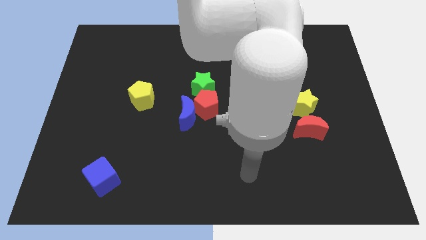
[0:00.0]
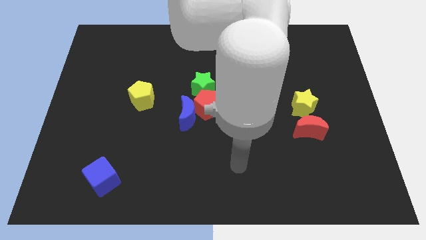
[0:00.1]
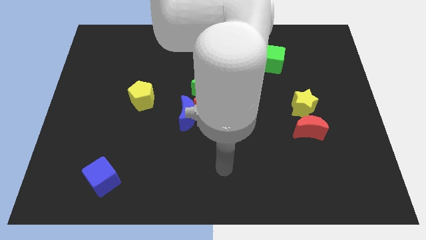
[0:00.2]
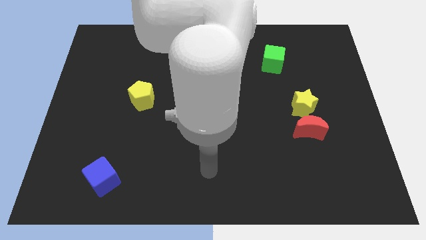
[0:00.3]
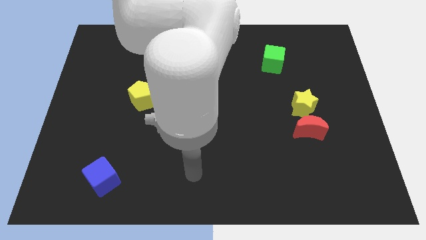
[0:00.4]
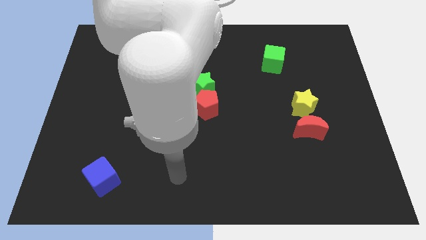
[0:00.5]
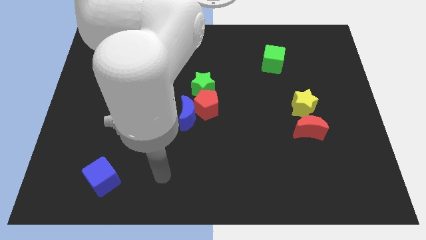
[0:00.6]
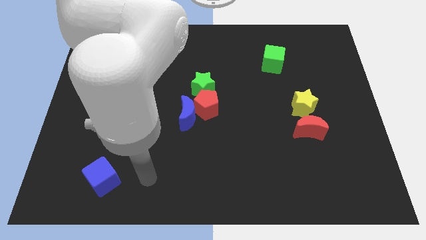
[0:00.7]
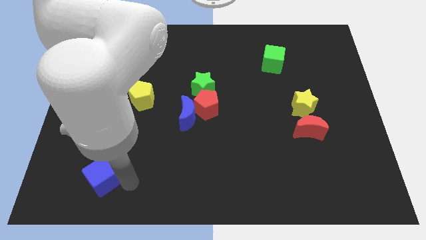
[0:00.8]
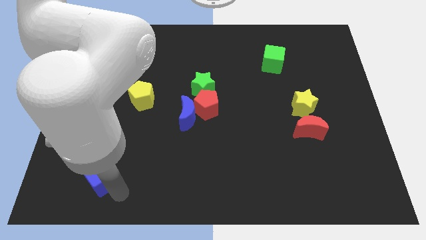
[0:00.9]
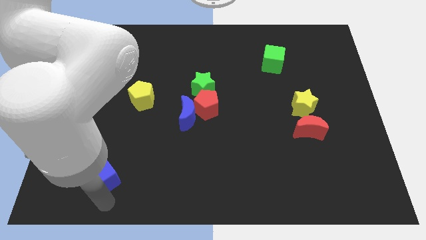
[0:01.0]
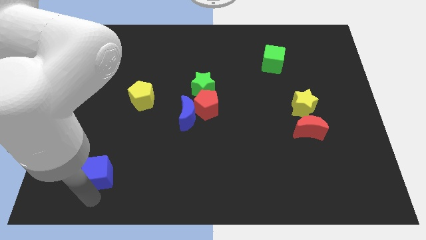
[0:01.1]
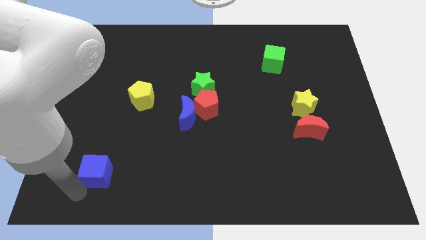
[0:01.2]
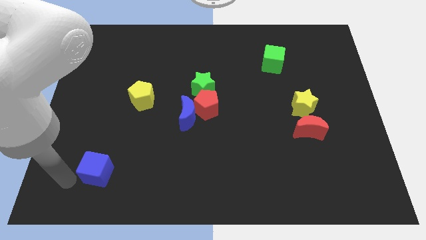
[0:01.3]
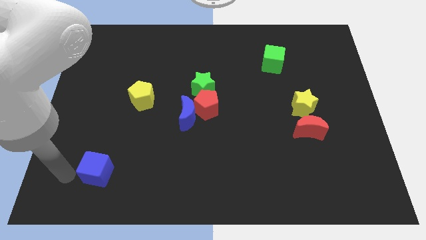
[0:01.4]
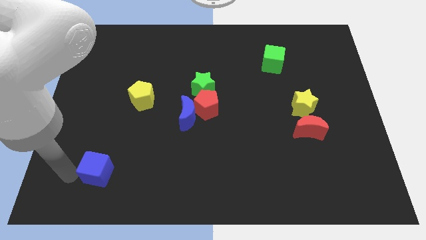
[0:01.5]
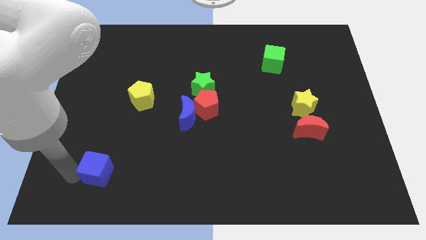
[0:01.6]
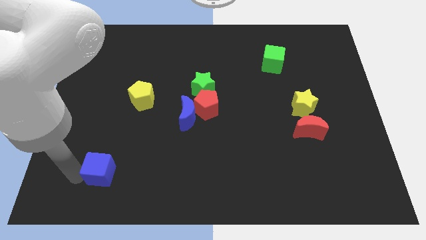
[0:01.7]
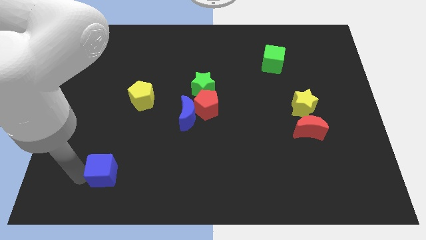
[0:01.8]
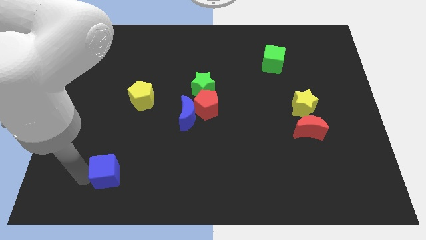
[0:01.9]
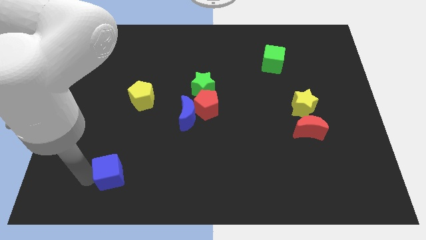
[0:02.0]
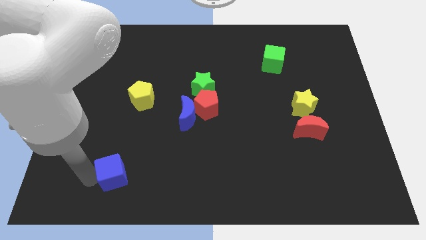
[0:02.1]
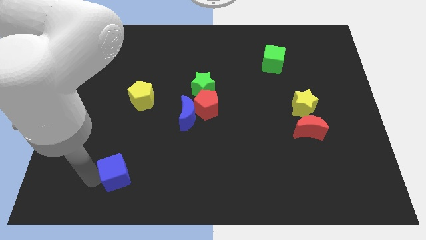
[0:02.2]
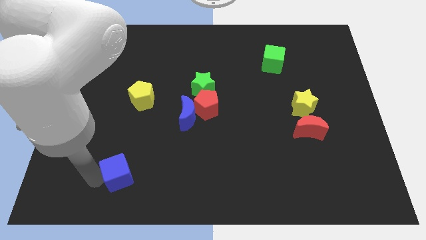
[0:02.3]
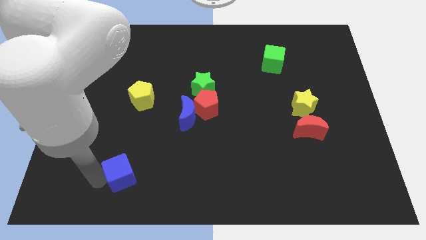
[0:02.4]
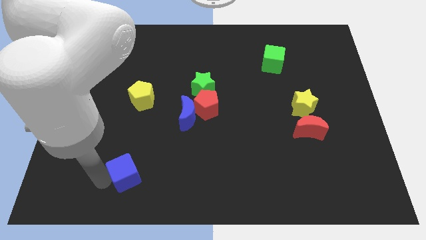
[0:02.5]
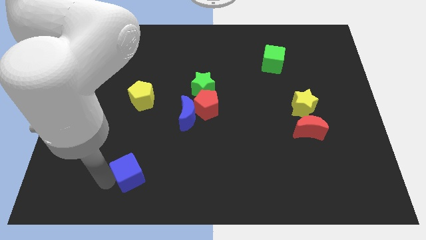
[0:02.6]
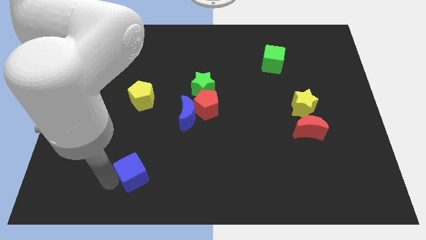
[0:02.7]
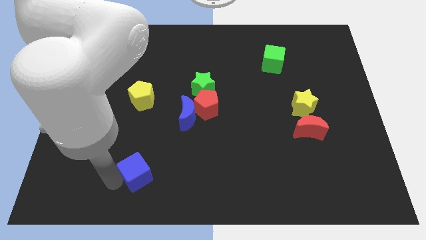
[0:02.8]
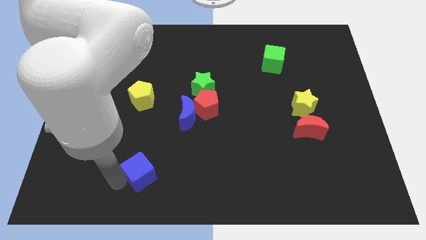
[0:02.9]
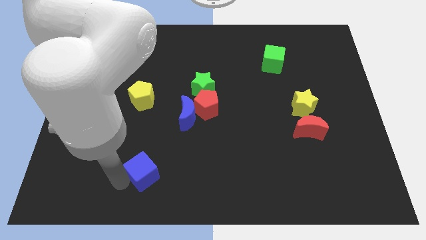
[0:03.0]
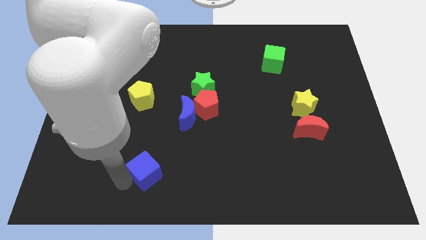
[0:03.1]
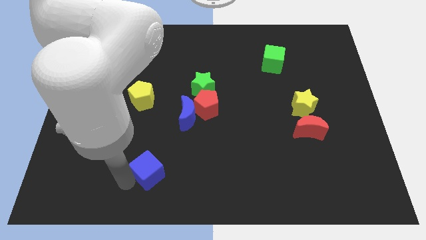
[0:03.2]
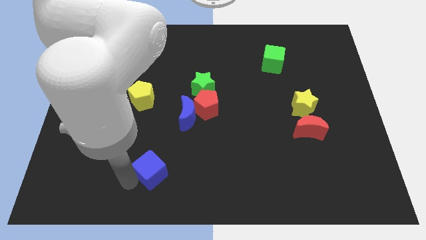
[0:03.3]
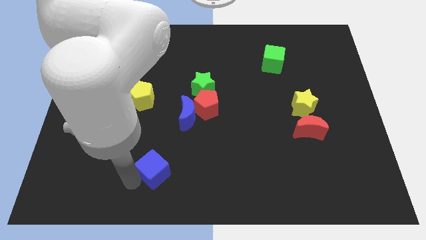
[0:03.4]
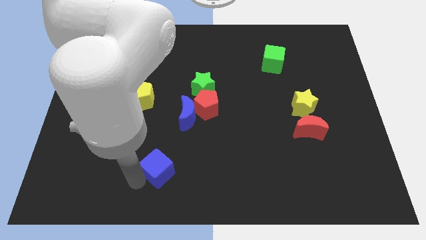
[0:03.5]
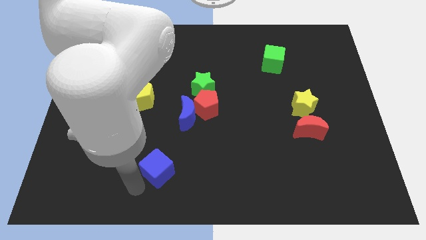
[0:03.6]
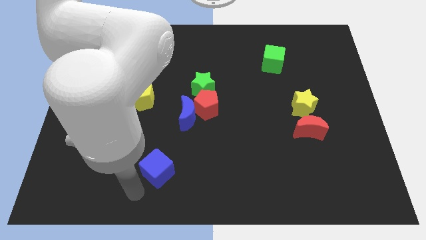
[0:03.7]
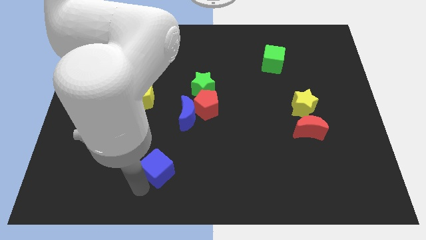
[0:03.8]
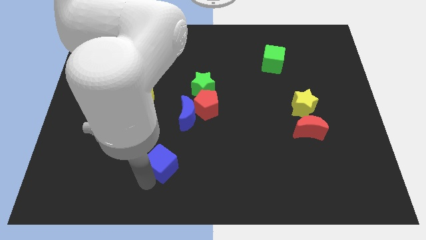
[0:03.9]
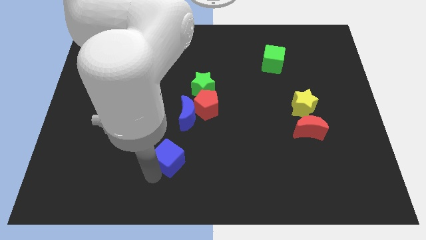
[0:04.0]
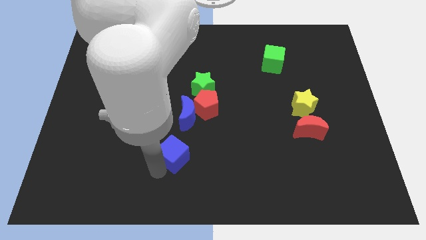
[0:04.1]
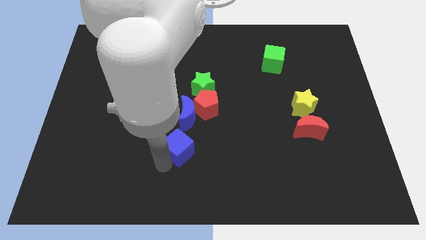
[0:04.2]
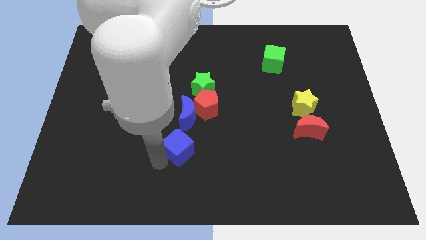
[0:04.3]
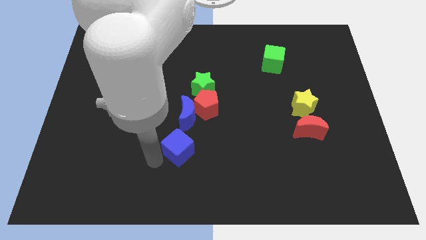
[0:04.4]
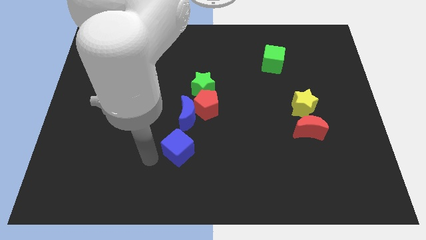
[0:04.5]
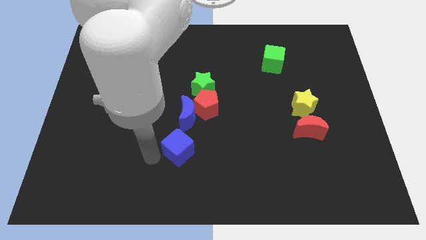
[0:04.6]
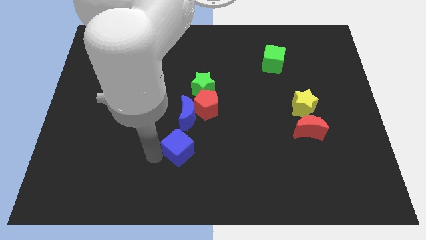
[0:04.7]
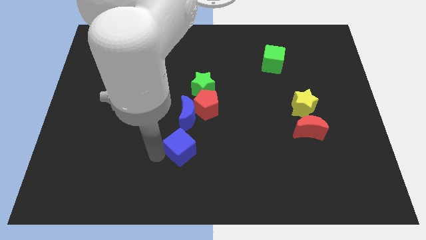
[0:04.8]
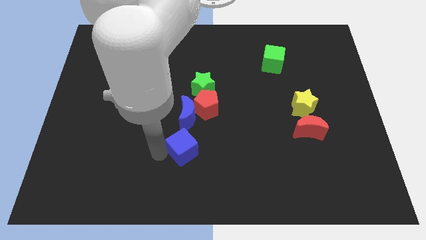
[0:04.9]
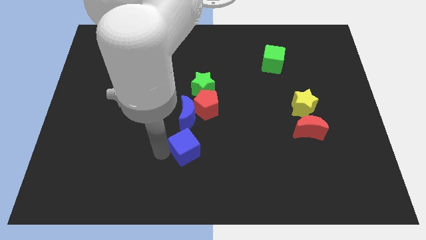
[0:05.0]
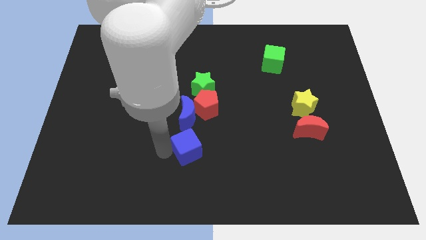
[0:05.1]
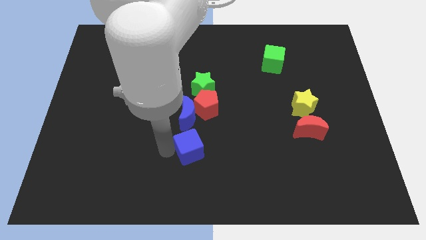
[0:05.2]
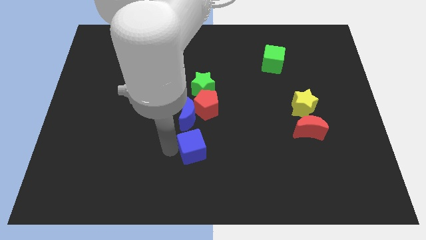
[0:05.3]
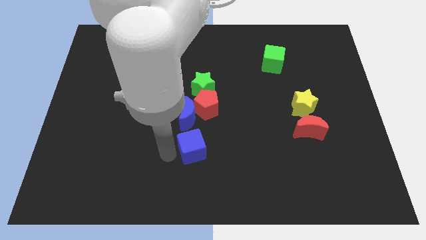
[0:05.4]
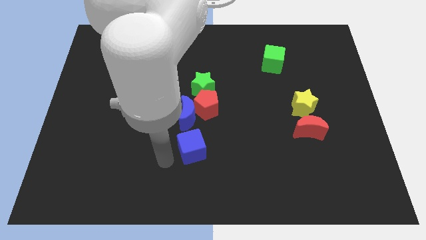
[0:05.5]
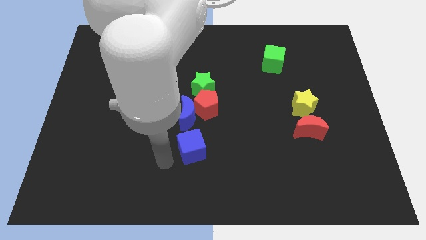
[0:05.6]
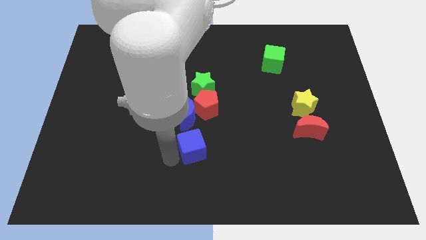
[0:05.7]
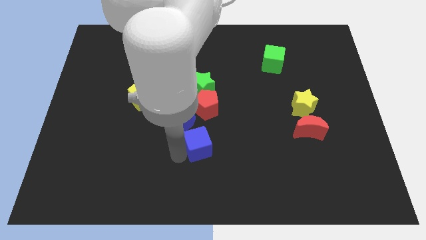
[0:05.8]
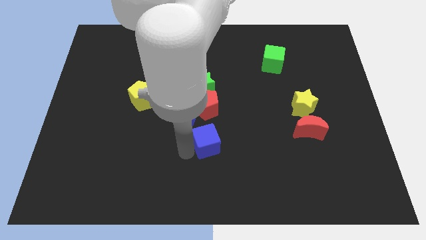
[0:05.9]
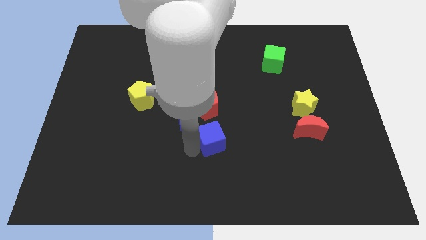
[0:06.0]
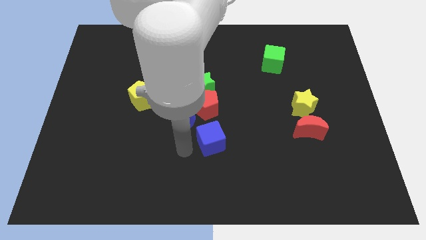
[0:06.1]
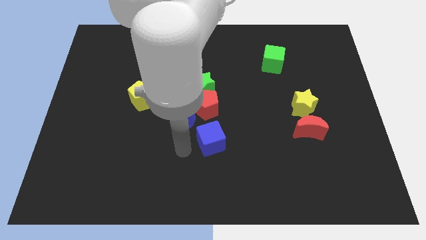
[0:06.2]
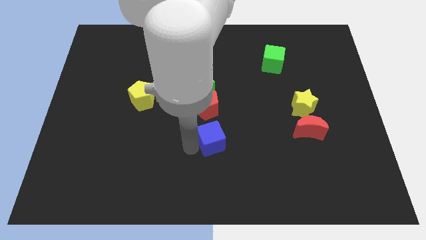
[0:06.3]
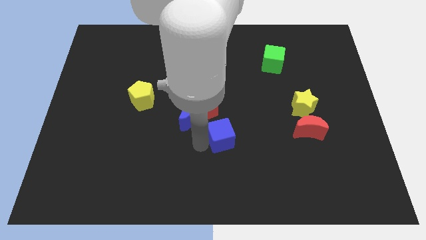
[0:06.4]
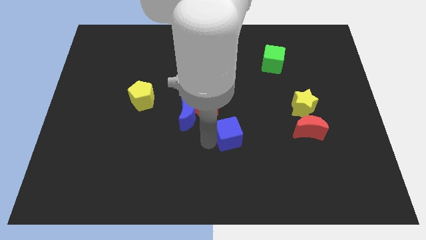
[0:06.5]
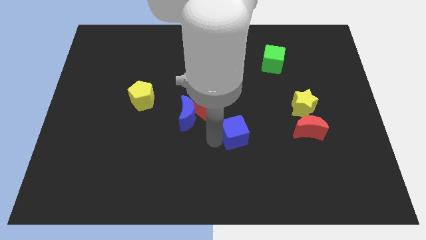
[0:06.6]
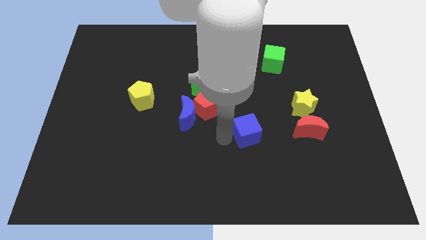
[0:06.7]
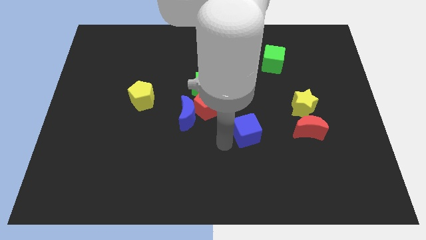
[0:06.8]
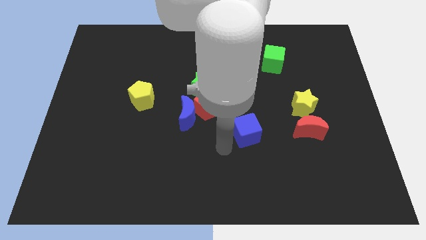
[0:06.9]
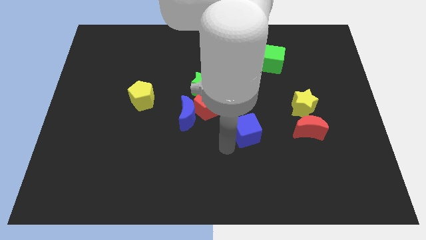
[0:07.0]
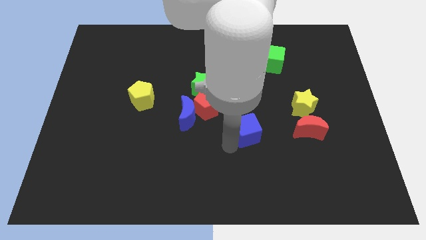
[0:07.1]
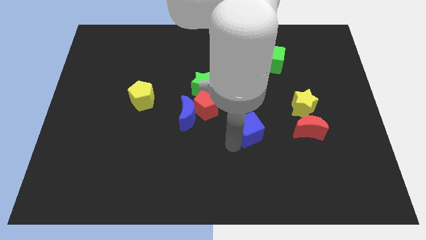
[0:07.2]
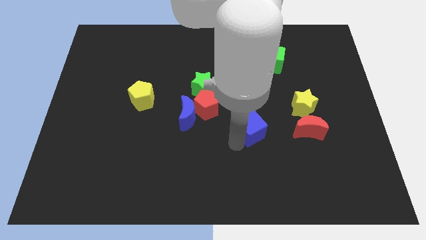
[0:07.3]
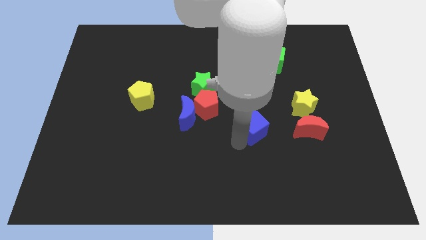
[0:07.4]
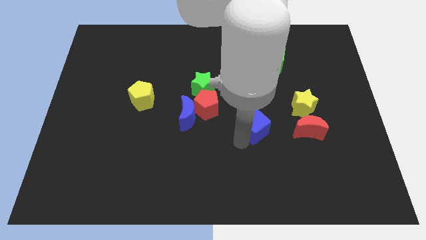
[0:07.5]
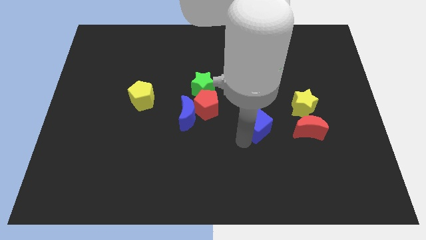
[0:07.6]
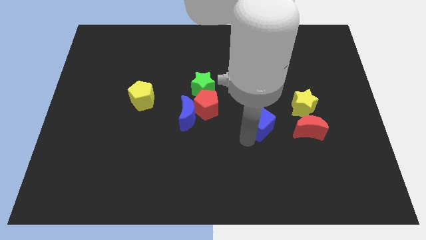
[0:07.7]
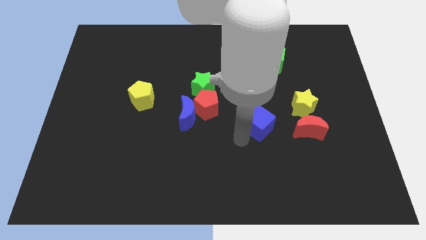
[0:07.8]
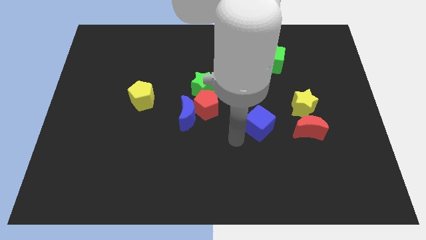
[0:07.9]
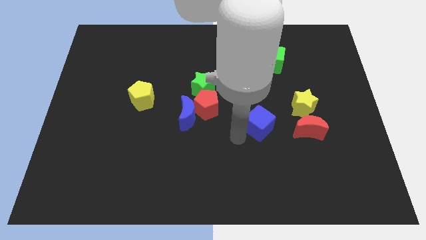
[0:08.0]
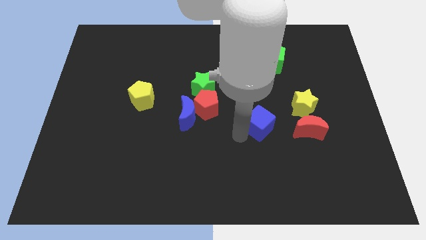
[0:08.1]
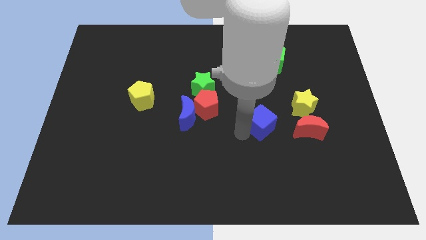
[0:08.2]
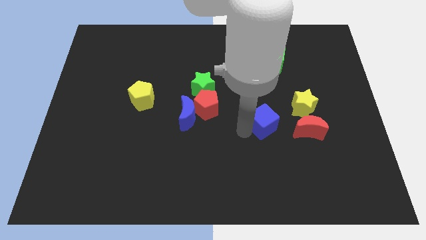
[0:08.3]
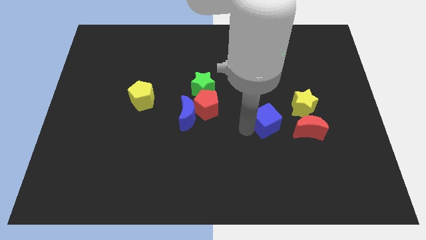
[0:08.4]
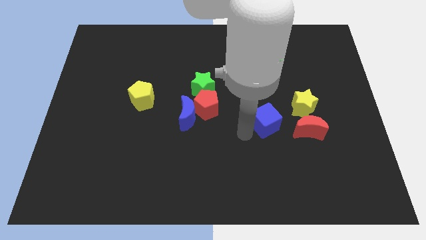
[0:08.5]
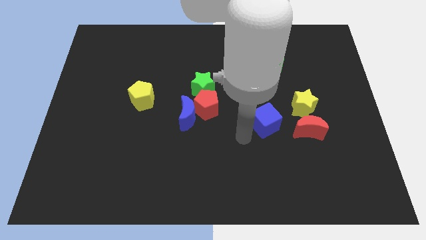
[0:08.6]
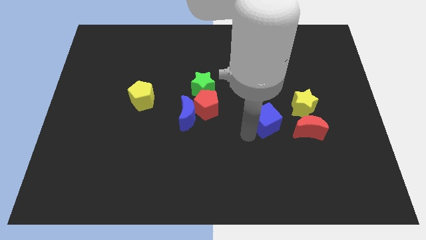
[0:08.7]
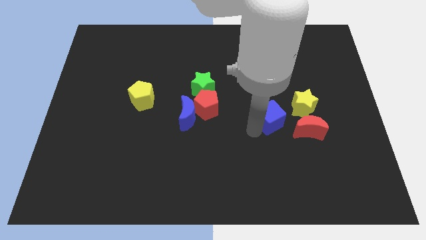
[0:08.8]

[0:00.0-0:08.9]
move the blue cube to the top left side of the red moon
